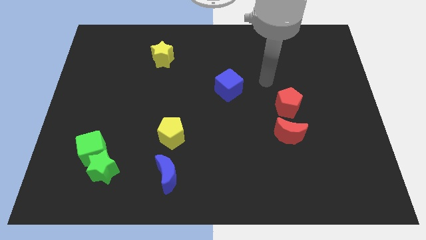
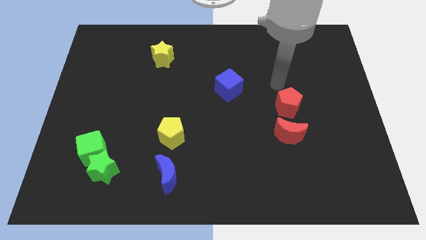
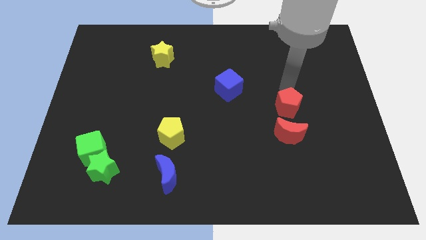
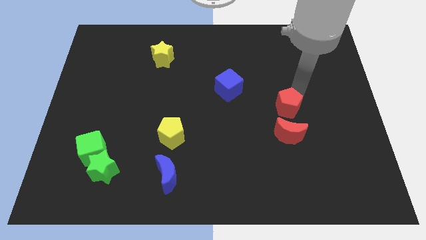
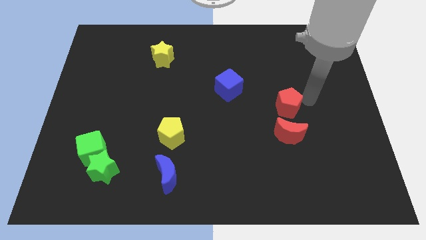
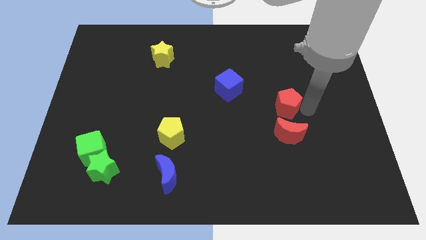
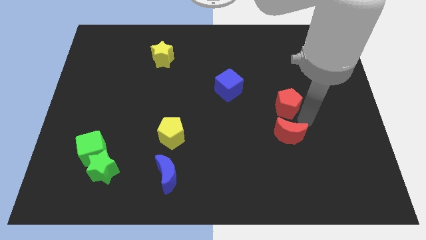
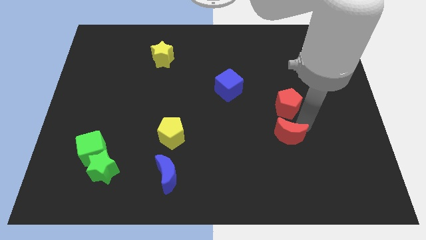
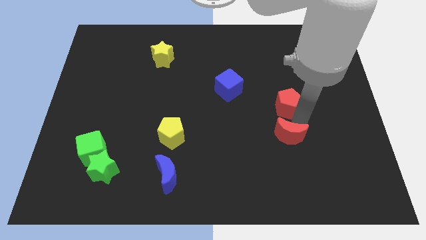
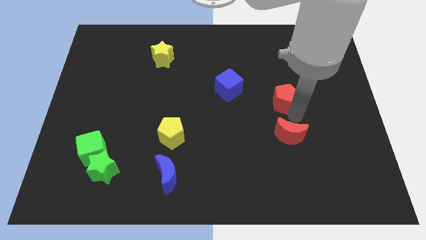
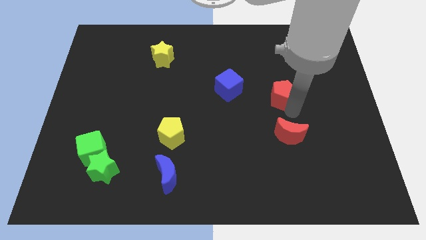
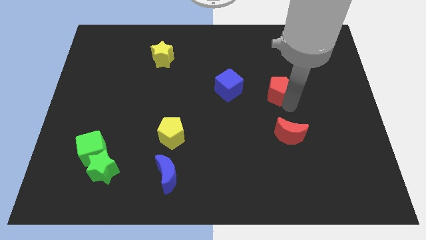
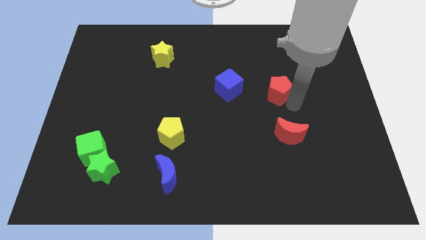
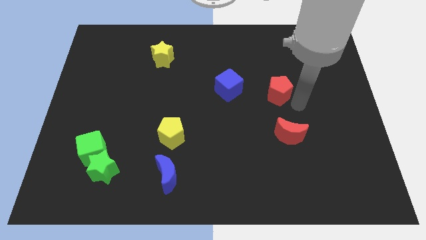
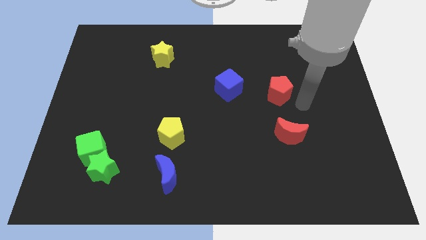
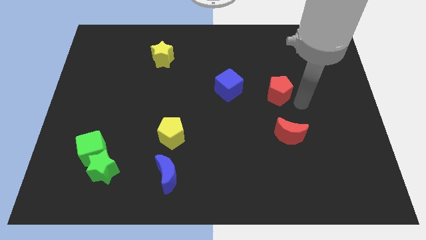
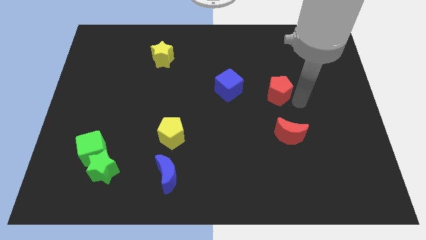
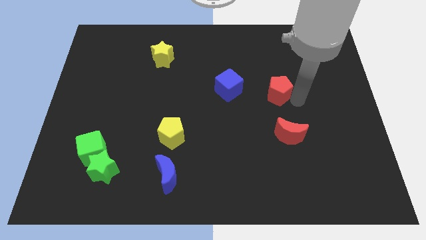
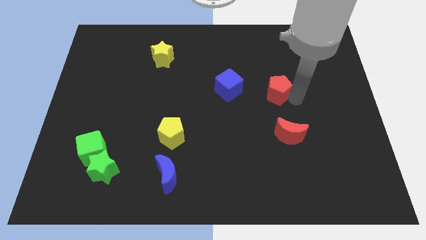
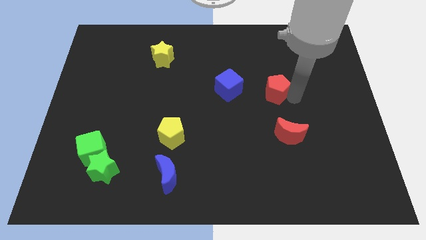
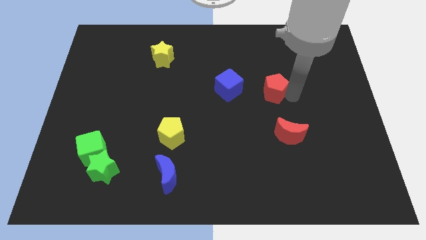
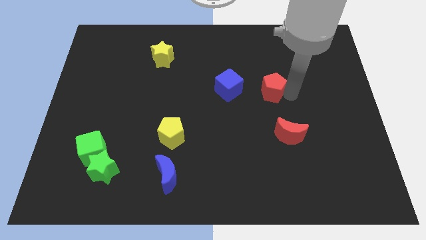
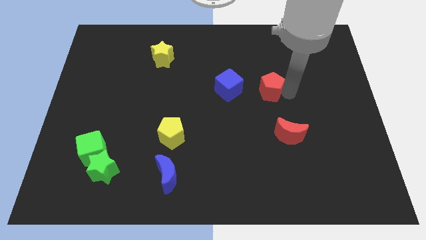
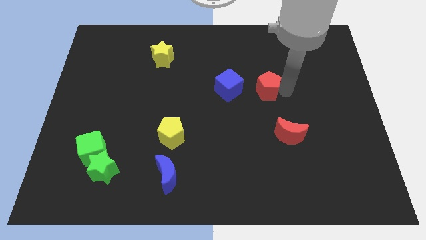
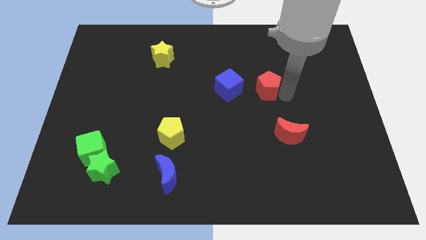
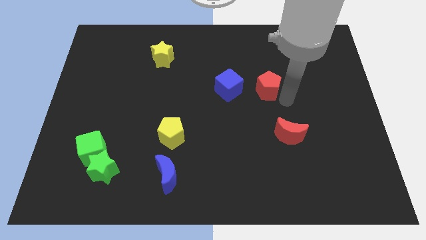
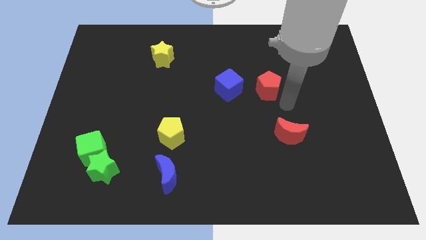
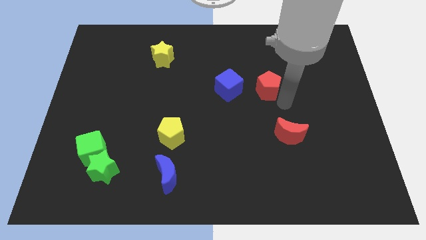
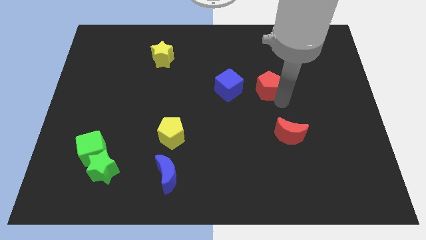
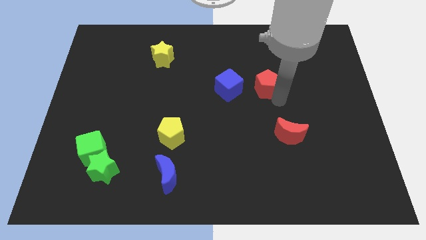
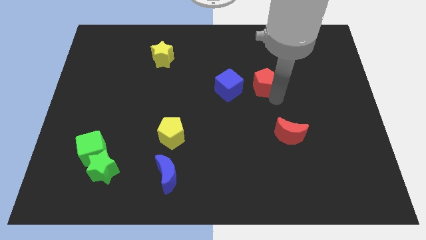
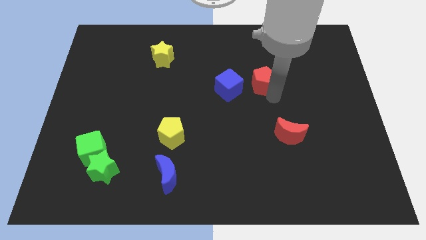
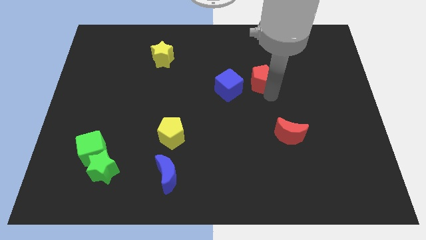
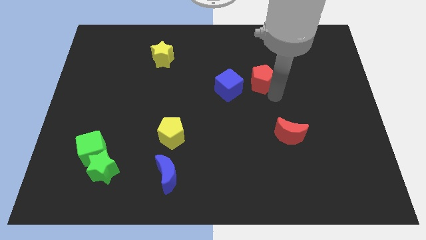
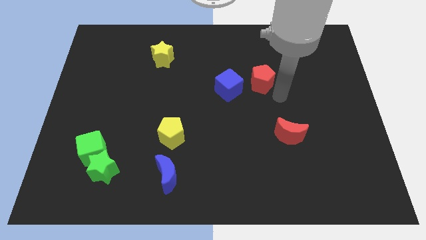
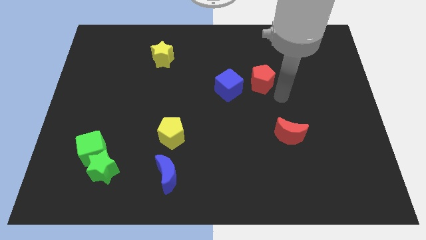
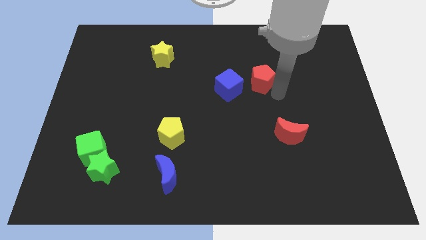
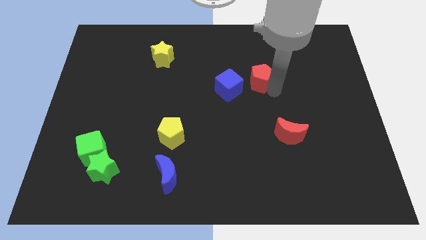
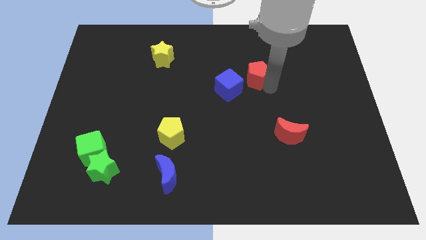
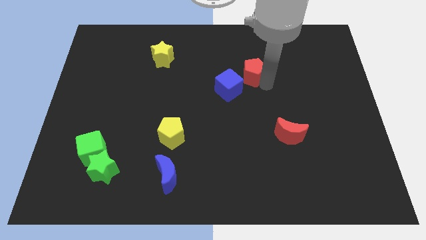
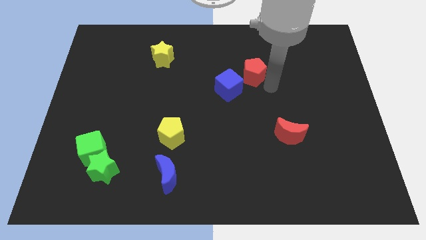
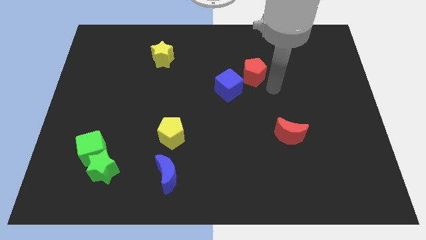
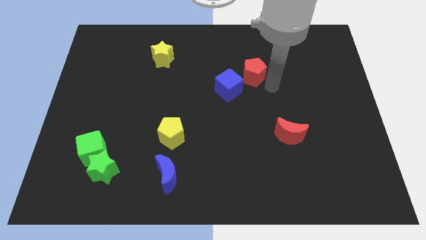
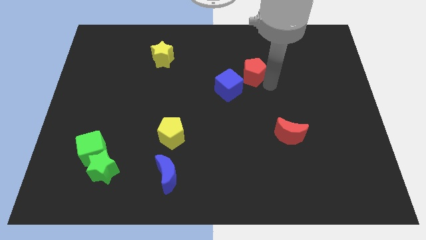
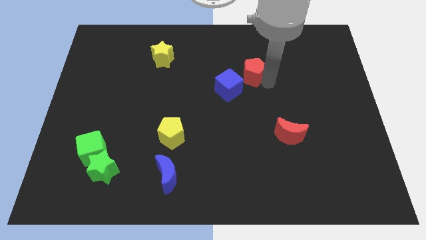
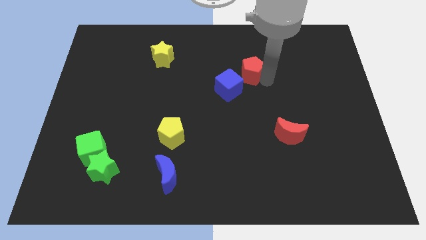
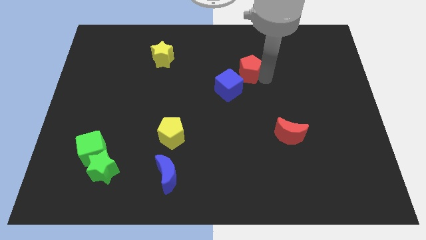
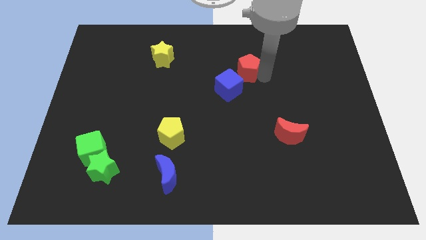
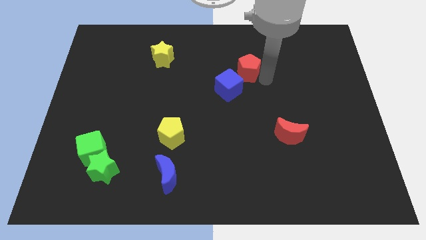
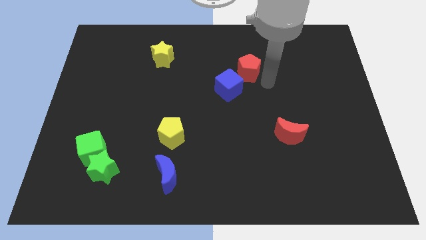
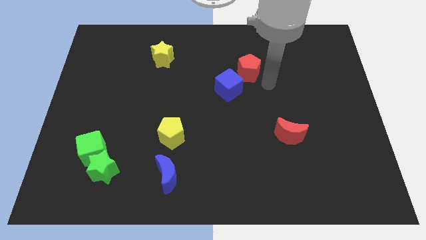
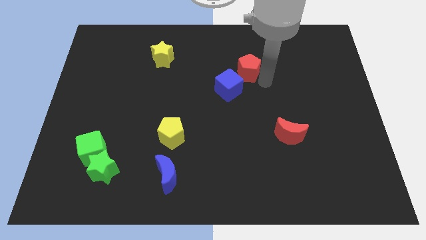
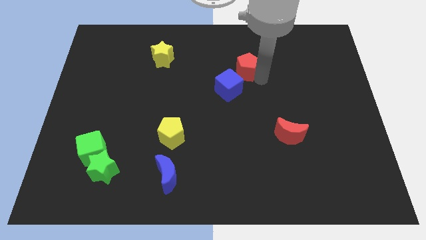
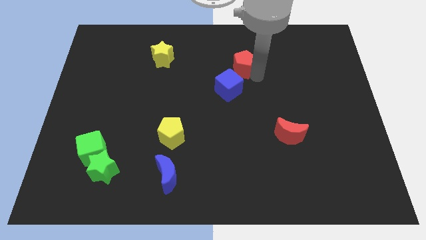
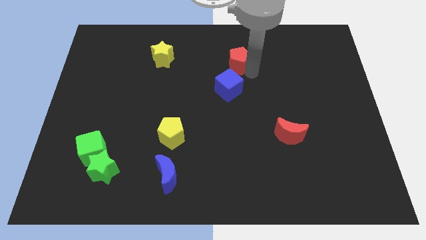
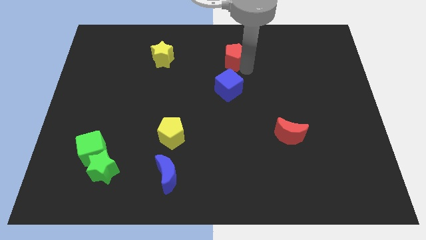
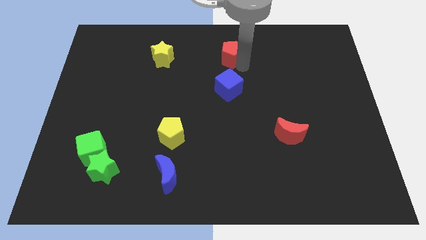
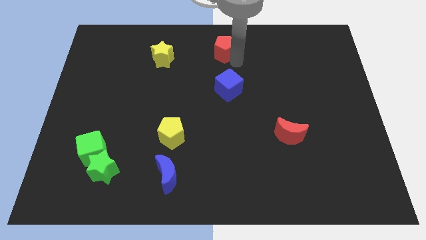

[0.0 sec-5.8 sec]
put the red pentagon to the top side
